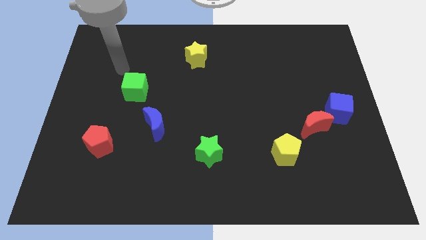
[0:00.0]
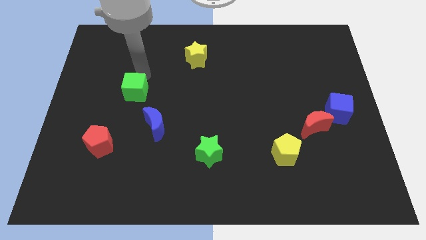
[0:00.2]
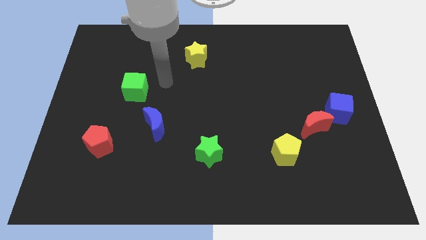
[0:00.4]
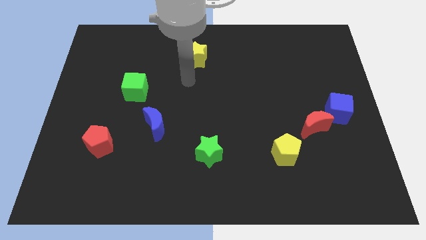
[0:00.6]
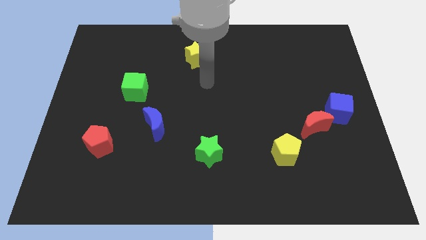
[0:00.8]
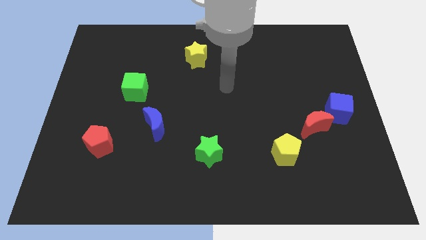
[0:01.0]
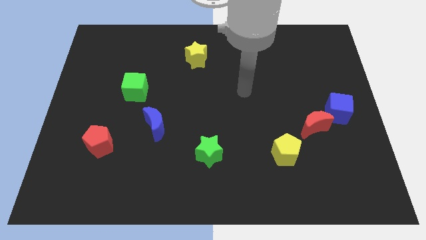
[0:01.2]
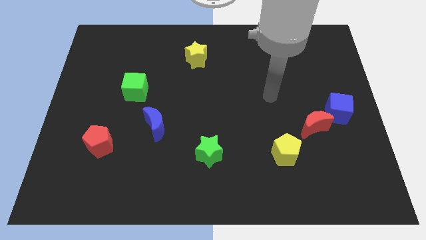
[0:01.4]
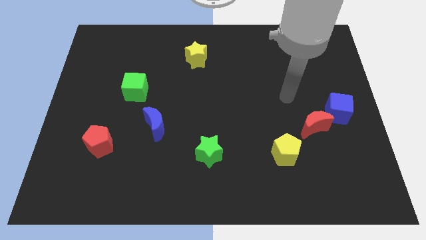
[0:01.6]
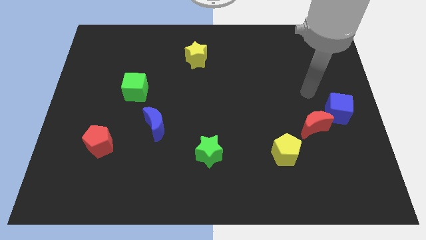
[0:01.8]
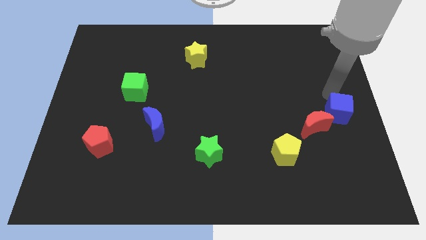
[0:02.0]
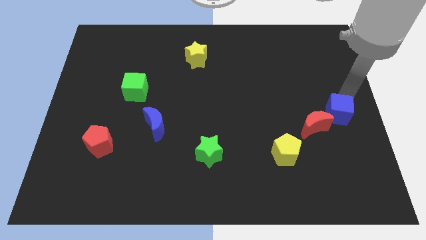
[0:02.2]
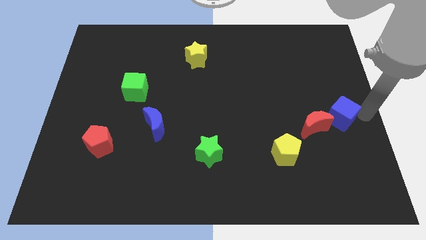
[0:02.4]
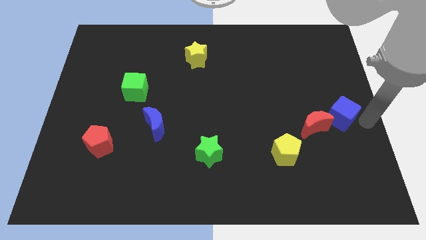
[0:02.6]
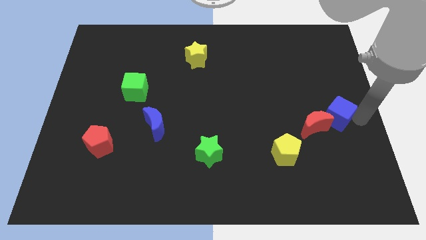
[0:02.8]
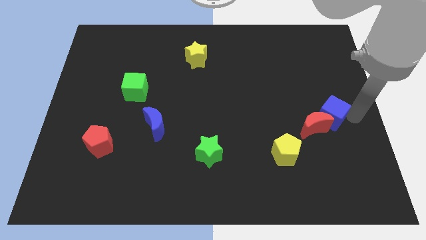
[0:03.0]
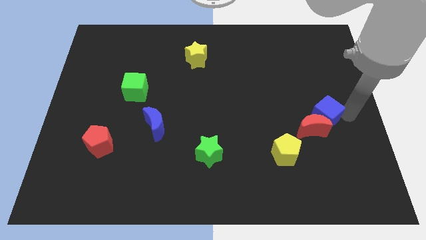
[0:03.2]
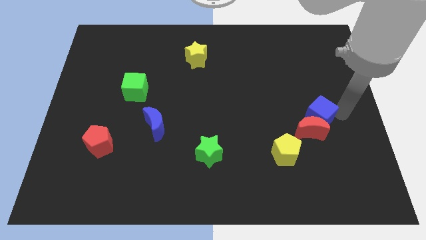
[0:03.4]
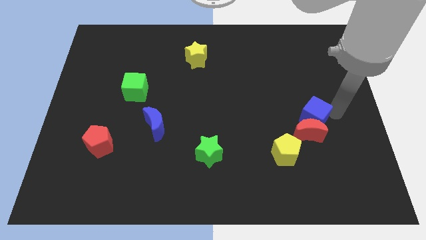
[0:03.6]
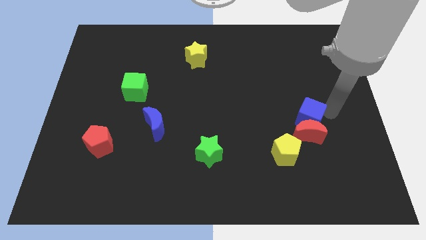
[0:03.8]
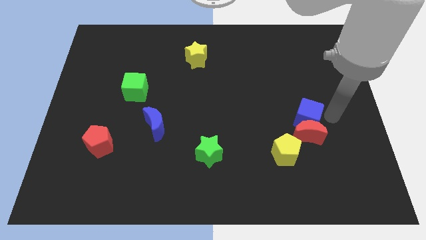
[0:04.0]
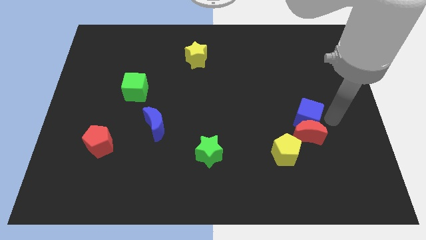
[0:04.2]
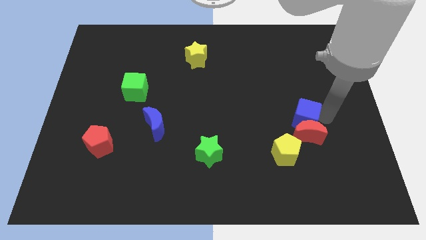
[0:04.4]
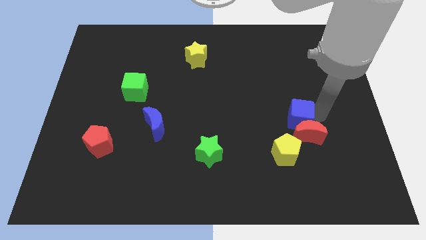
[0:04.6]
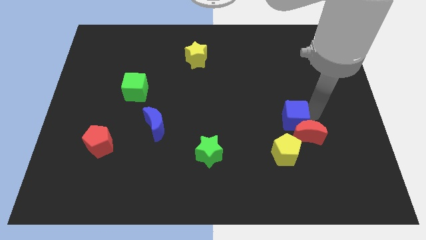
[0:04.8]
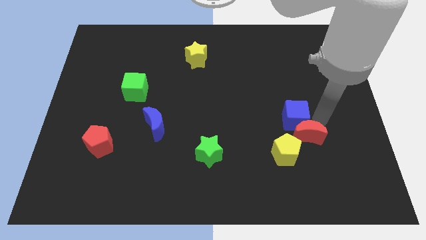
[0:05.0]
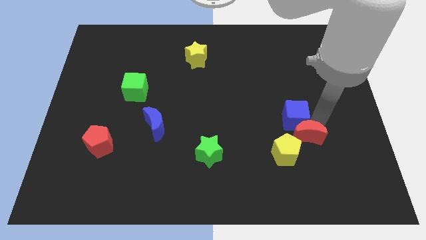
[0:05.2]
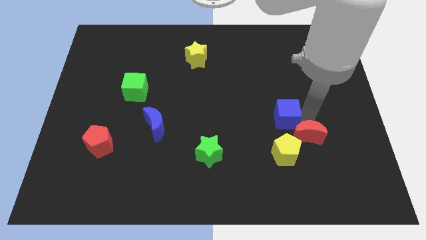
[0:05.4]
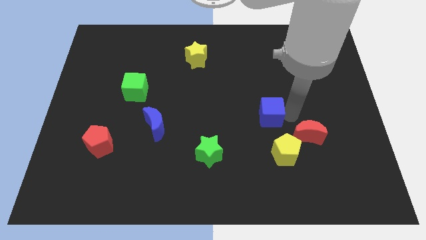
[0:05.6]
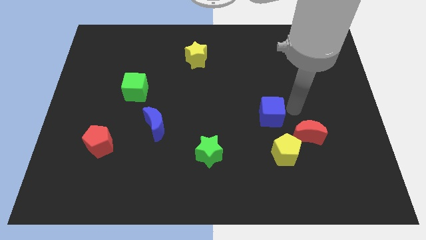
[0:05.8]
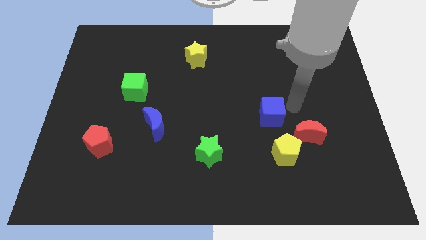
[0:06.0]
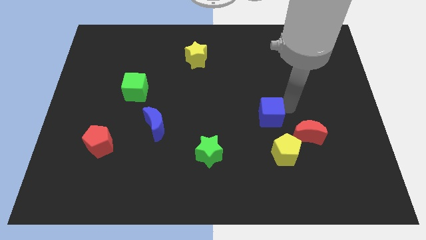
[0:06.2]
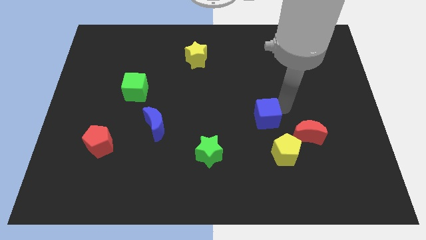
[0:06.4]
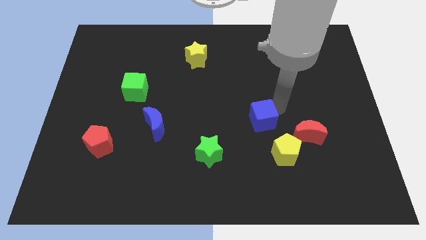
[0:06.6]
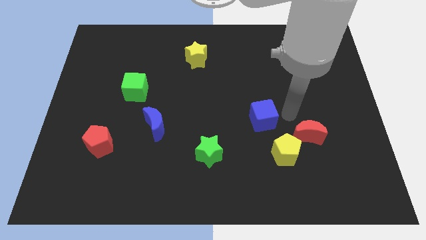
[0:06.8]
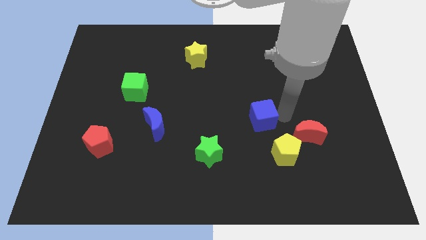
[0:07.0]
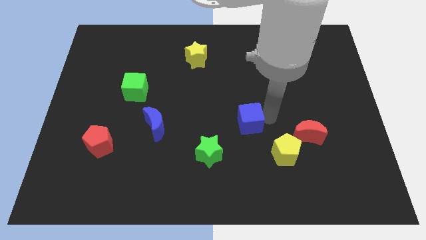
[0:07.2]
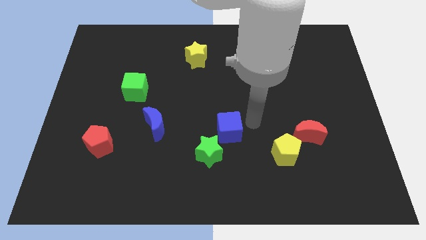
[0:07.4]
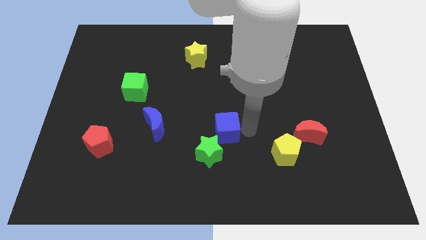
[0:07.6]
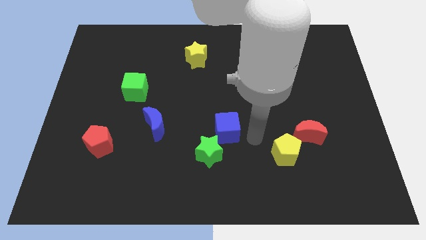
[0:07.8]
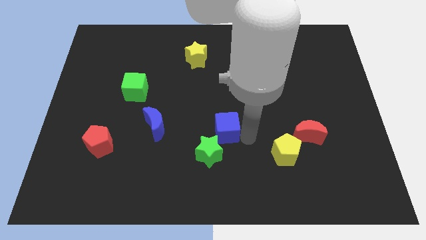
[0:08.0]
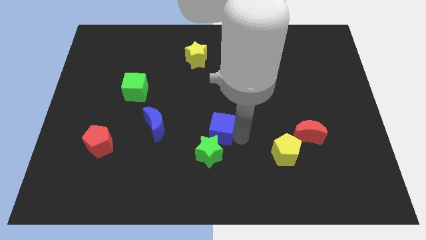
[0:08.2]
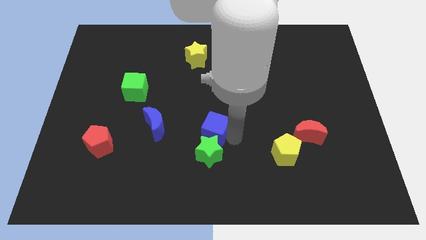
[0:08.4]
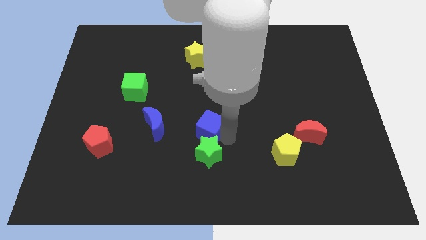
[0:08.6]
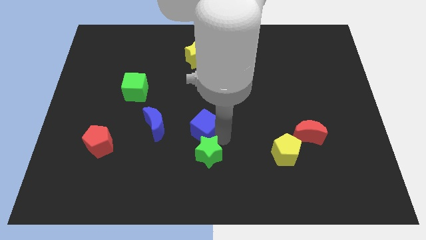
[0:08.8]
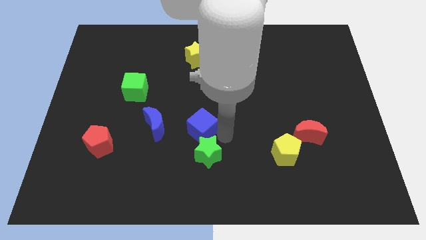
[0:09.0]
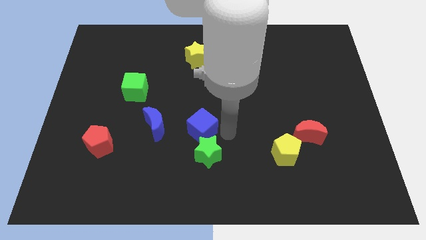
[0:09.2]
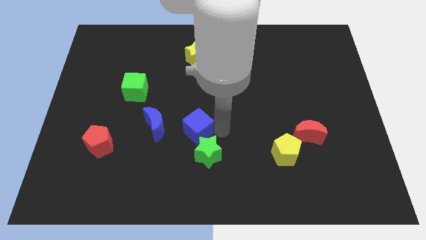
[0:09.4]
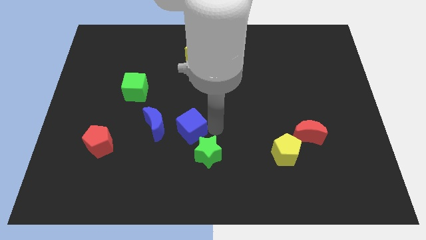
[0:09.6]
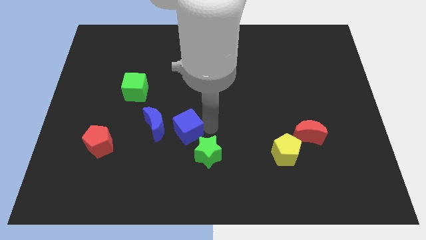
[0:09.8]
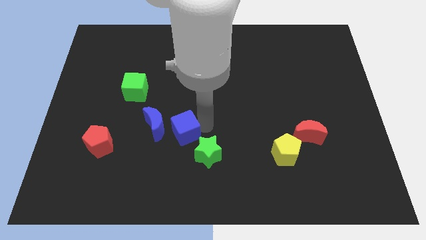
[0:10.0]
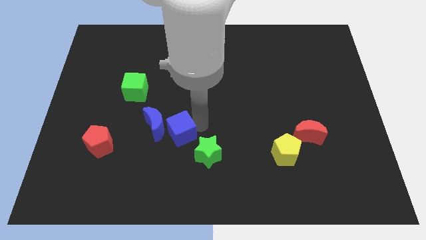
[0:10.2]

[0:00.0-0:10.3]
push the blue cube to the blue moon

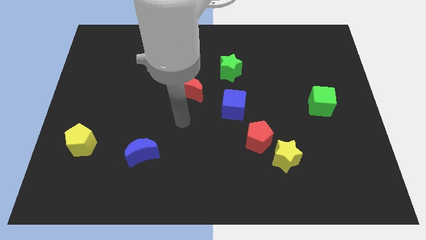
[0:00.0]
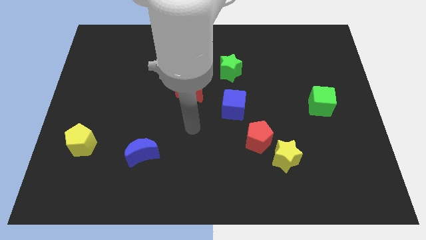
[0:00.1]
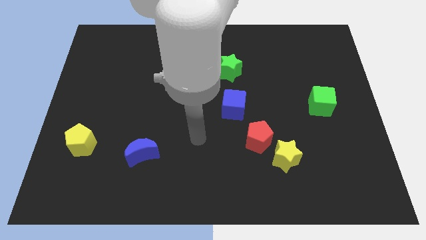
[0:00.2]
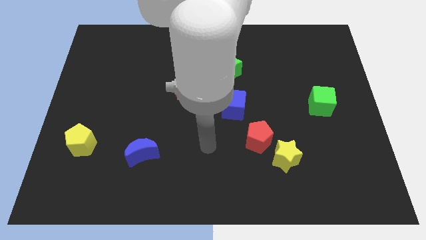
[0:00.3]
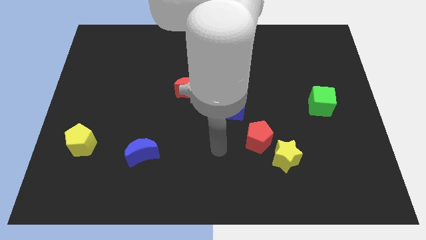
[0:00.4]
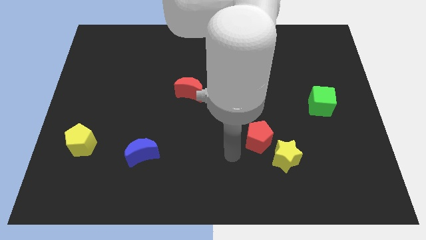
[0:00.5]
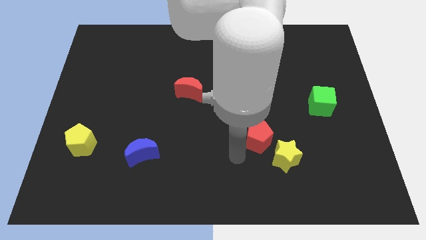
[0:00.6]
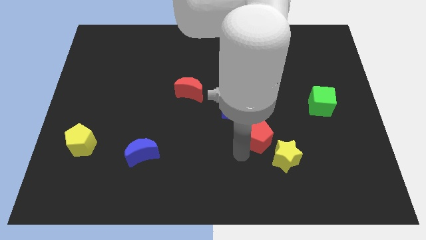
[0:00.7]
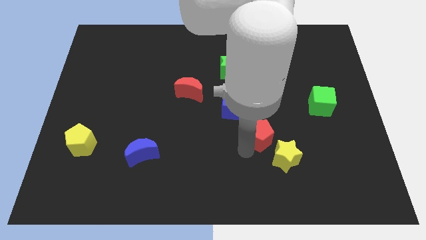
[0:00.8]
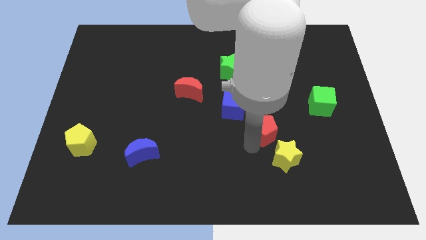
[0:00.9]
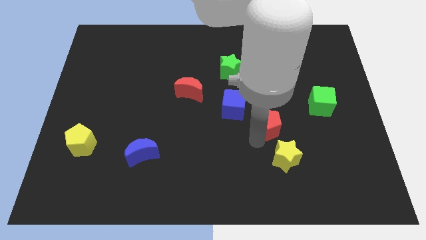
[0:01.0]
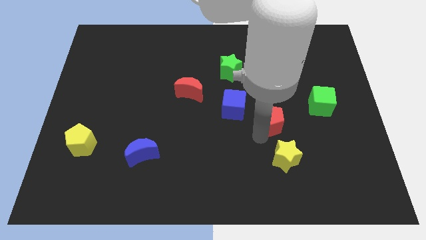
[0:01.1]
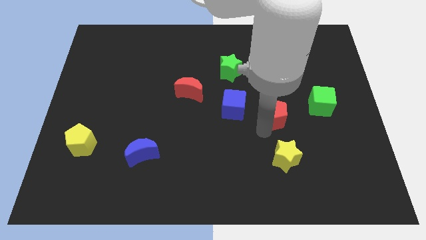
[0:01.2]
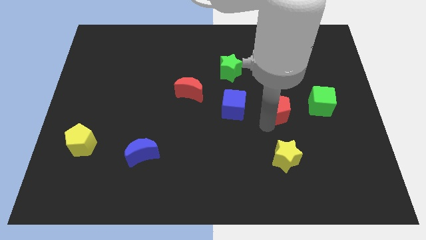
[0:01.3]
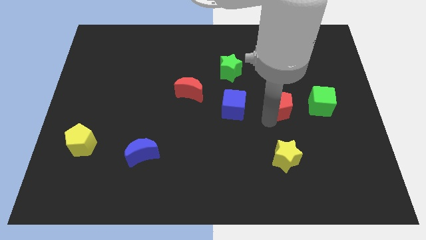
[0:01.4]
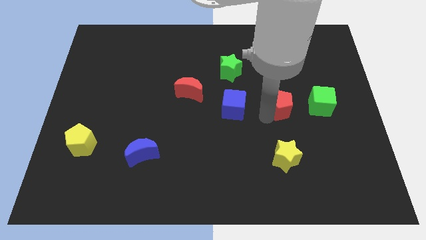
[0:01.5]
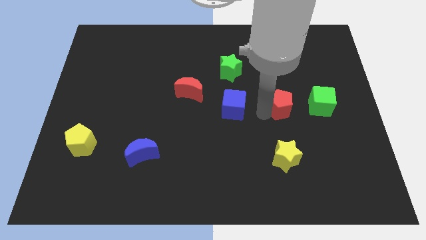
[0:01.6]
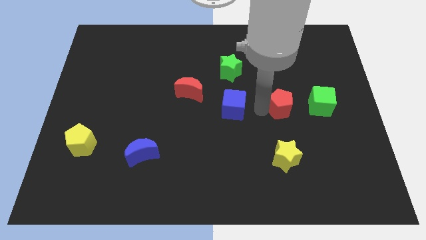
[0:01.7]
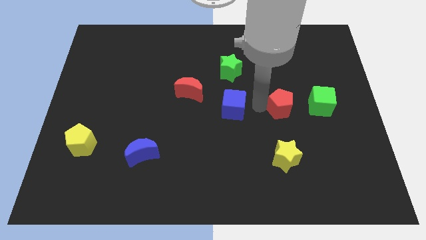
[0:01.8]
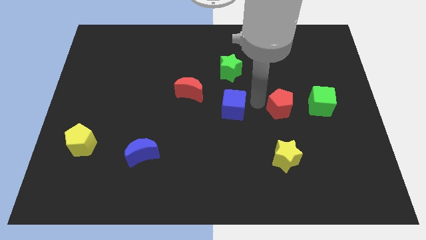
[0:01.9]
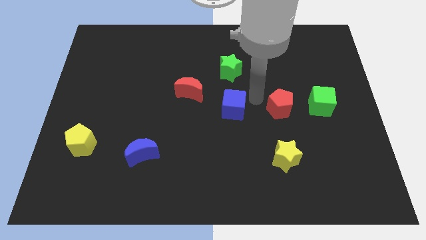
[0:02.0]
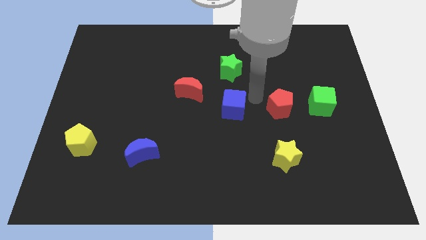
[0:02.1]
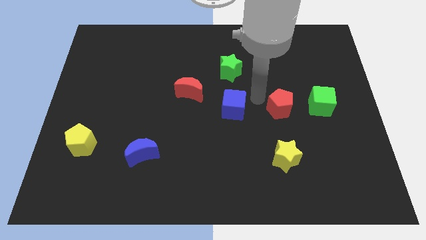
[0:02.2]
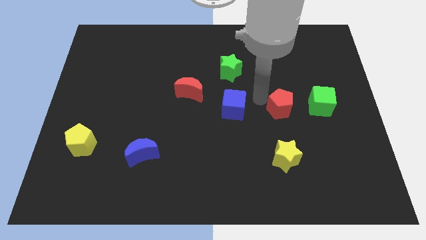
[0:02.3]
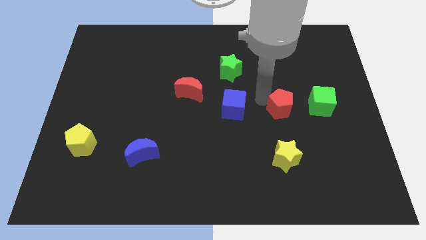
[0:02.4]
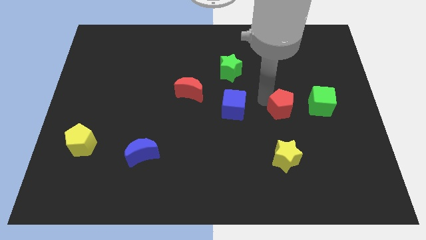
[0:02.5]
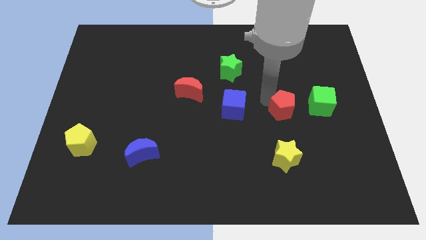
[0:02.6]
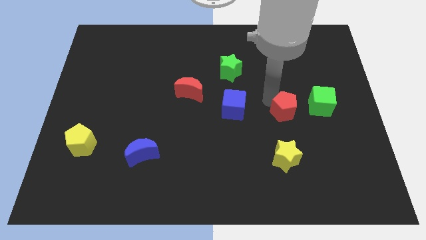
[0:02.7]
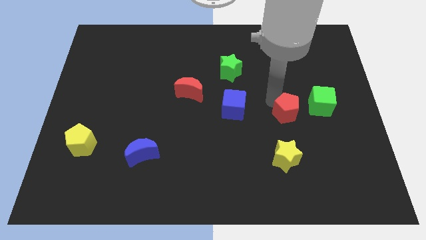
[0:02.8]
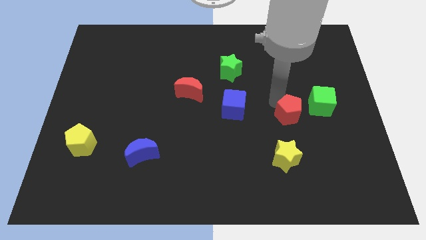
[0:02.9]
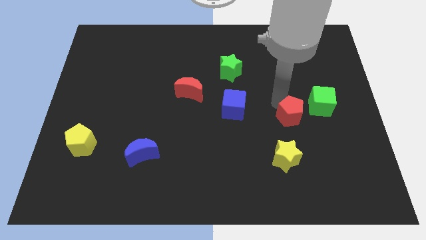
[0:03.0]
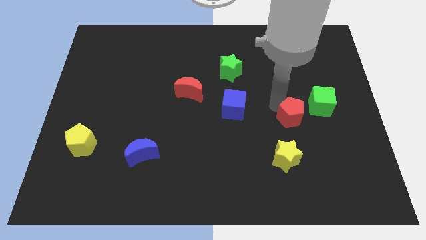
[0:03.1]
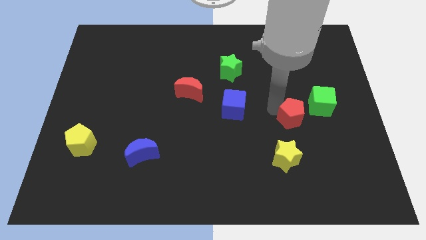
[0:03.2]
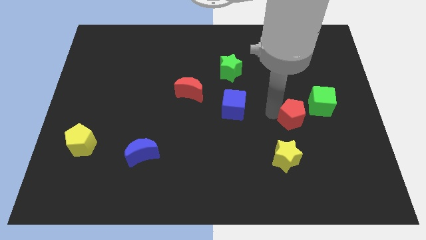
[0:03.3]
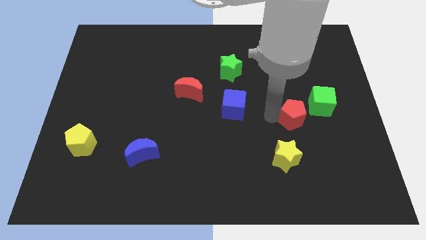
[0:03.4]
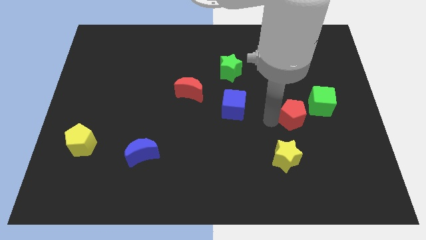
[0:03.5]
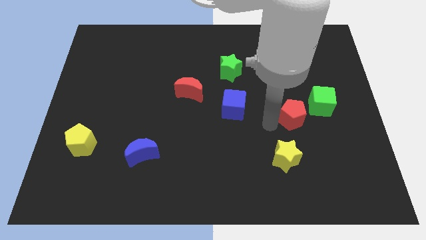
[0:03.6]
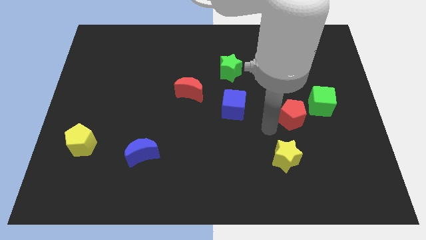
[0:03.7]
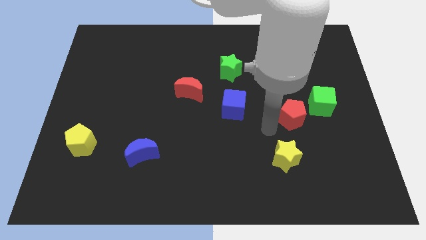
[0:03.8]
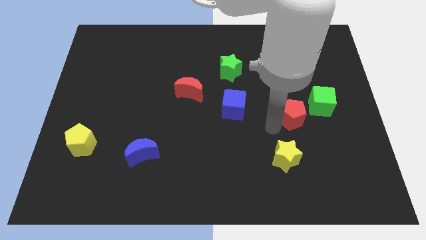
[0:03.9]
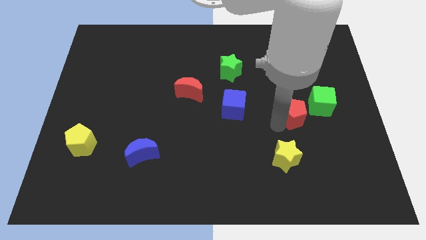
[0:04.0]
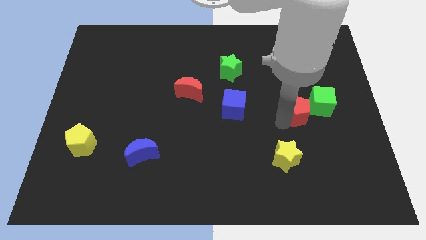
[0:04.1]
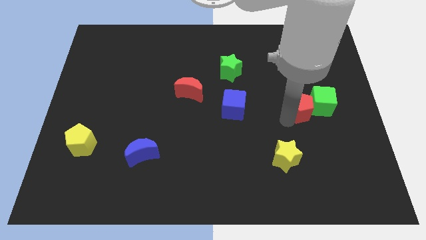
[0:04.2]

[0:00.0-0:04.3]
move the red pentagon towards the green cube
